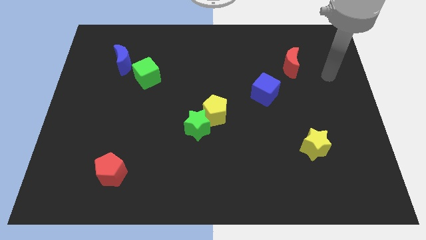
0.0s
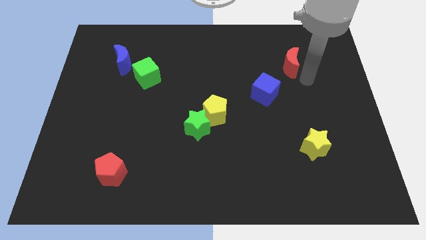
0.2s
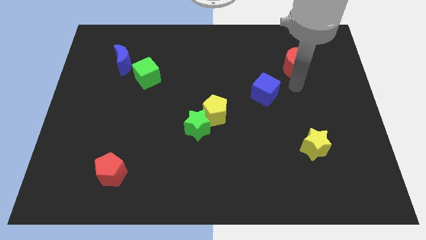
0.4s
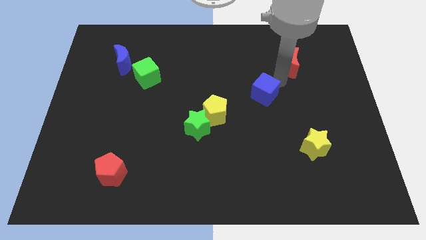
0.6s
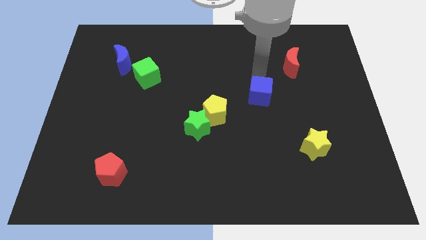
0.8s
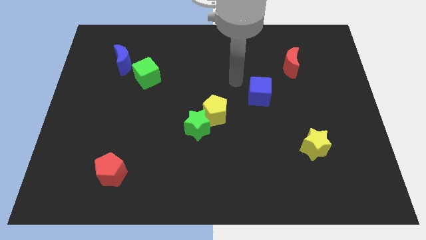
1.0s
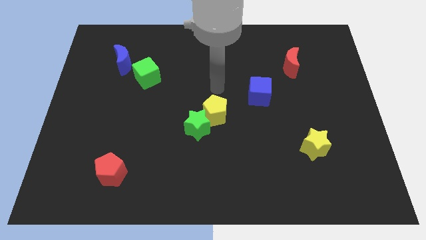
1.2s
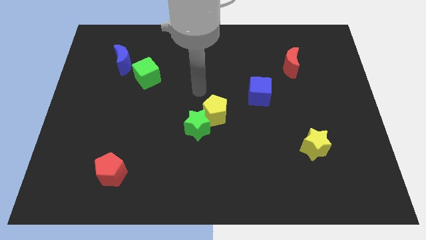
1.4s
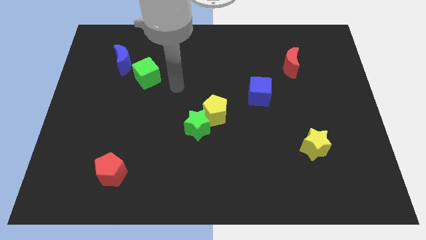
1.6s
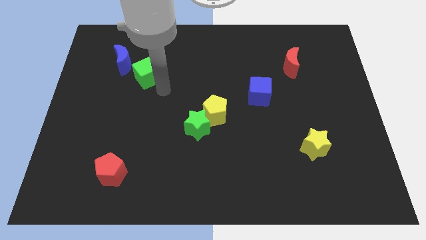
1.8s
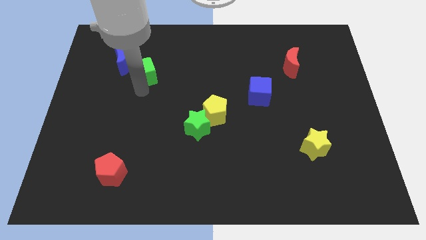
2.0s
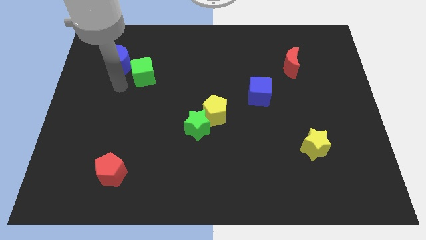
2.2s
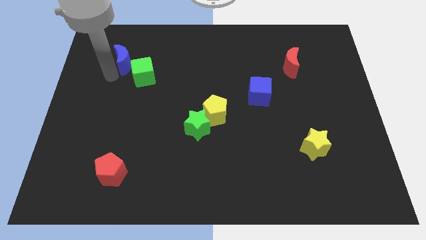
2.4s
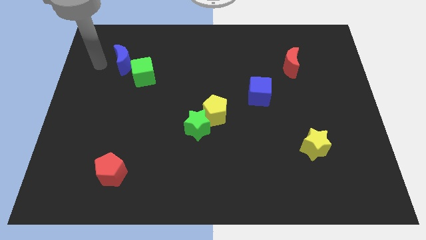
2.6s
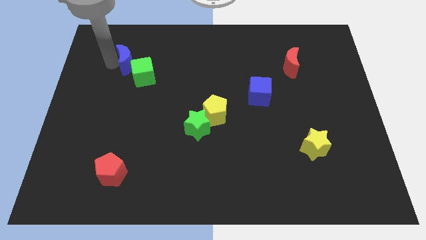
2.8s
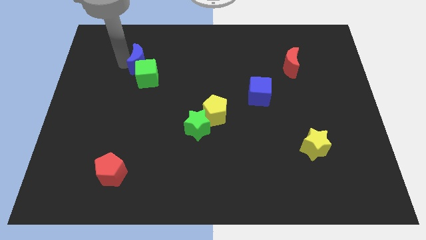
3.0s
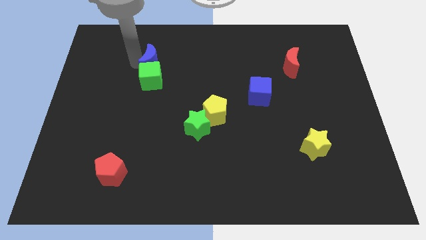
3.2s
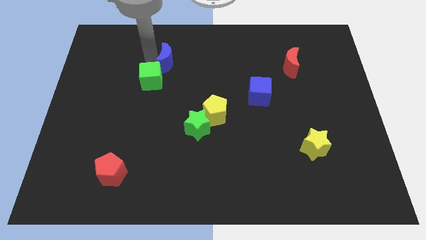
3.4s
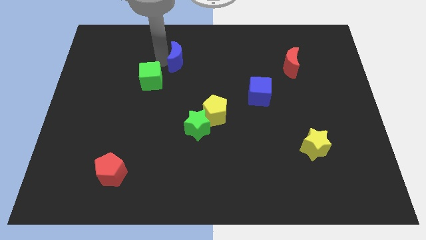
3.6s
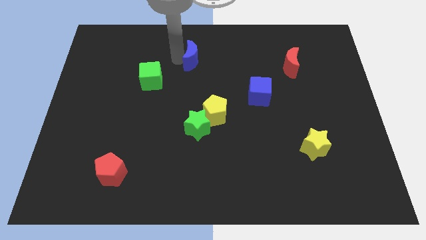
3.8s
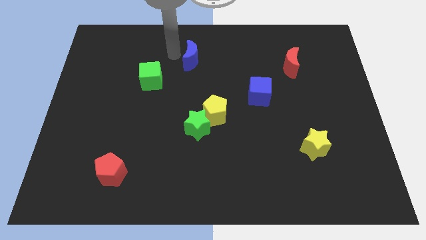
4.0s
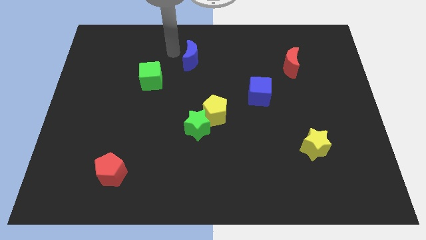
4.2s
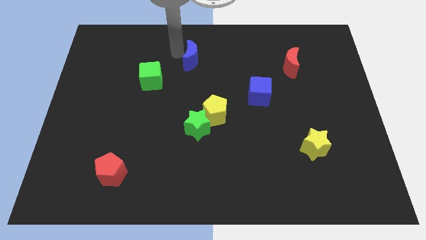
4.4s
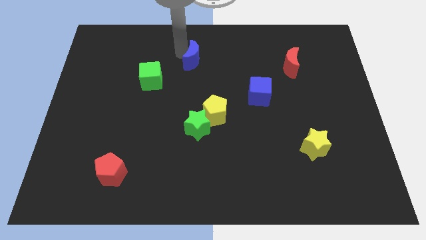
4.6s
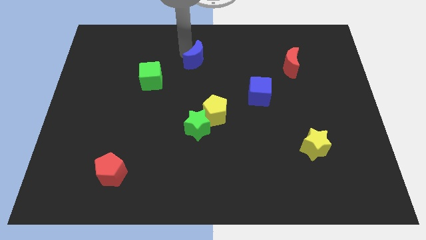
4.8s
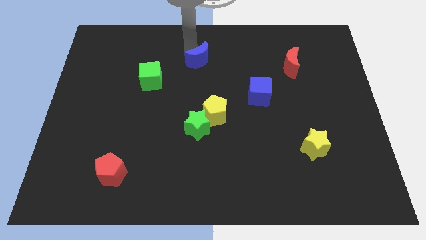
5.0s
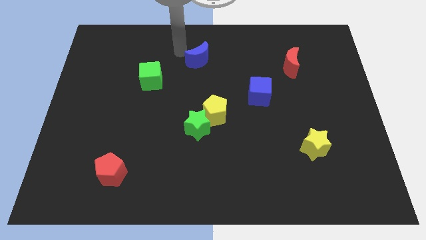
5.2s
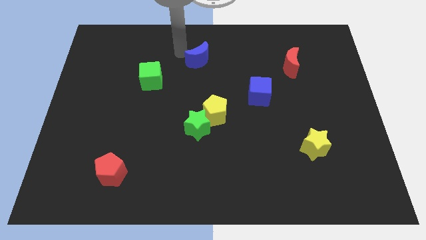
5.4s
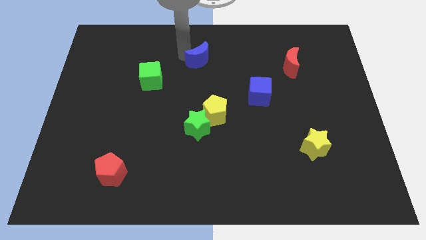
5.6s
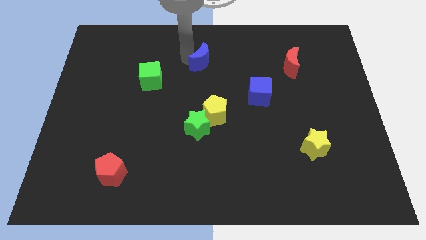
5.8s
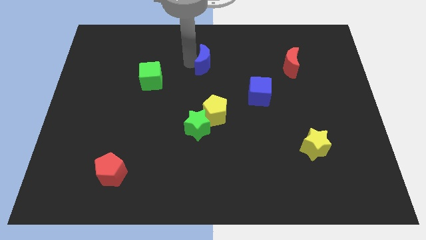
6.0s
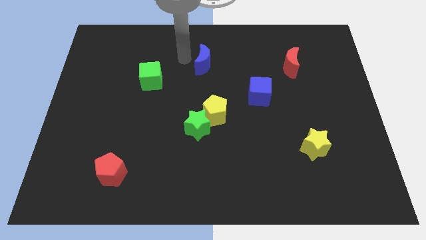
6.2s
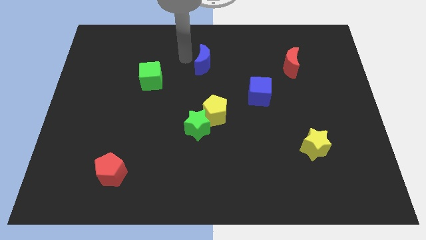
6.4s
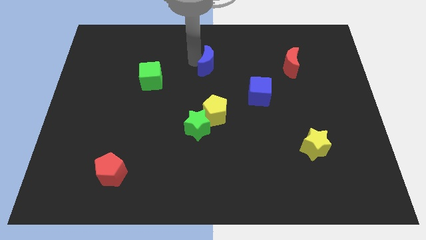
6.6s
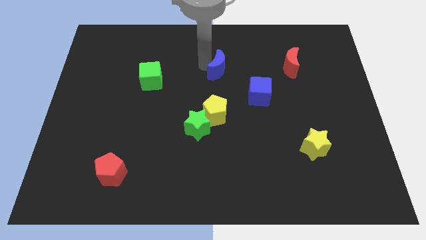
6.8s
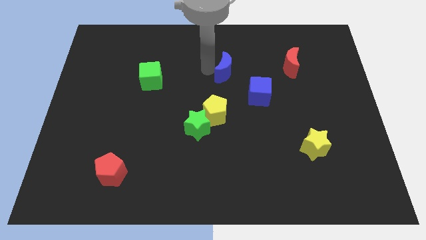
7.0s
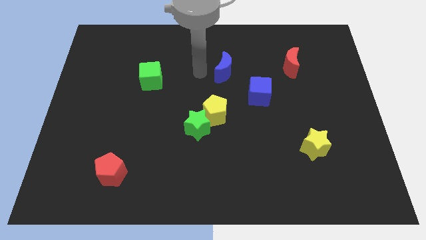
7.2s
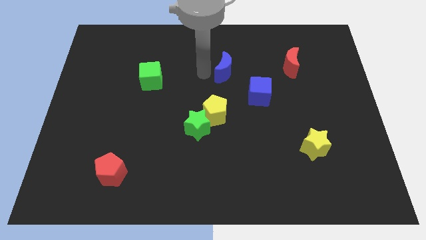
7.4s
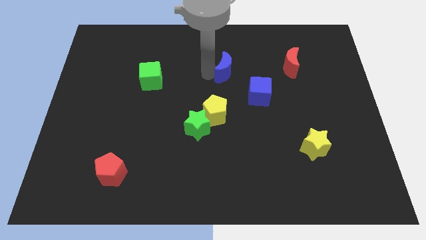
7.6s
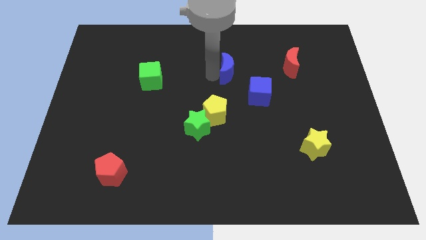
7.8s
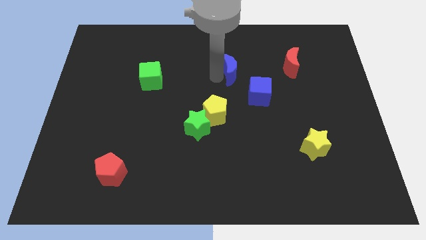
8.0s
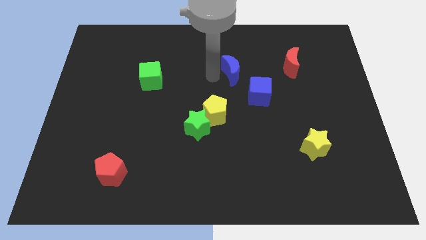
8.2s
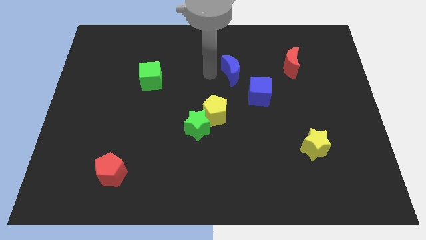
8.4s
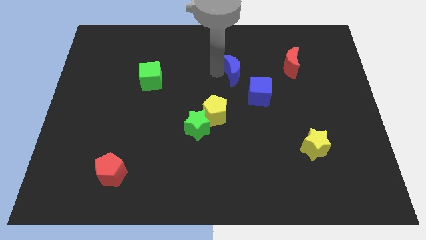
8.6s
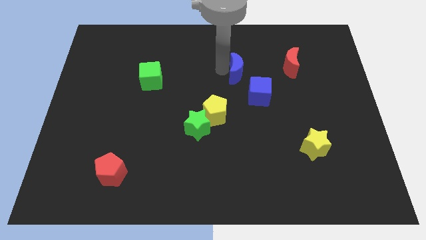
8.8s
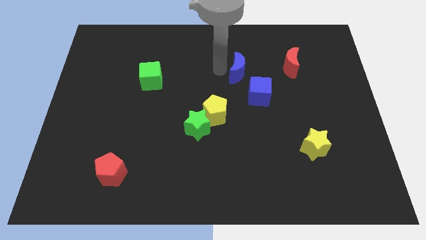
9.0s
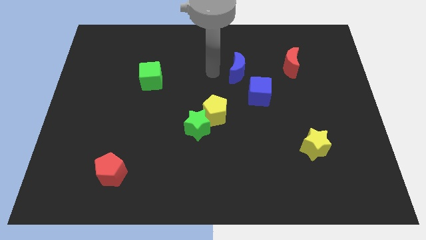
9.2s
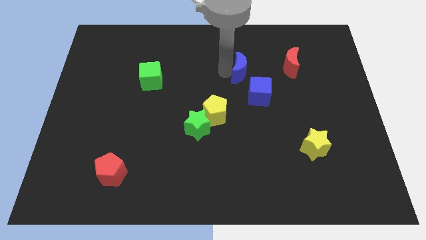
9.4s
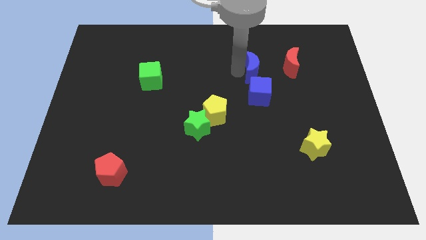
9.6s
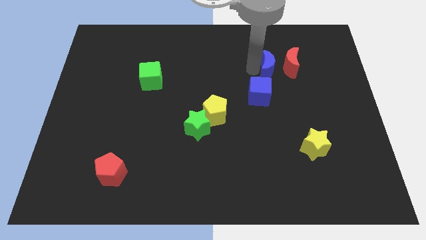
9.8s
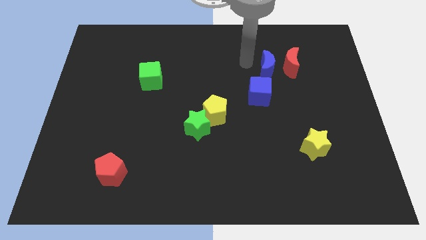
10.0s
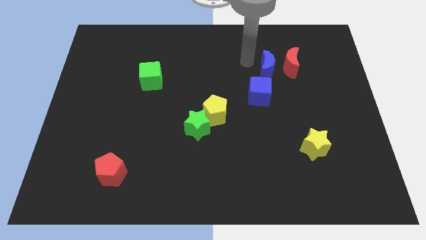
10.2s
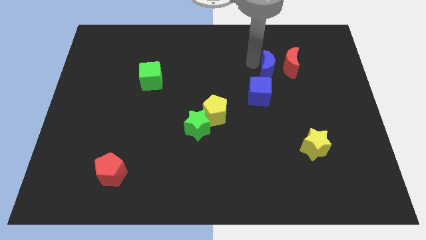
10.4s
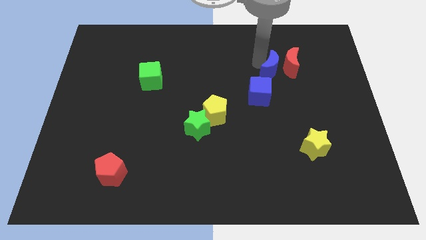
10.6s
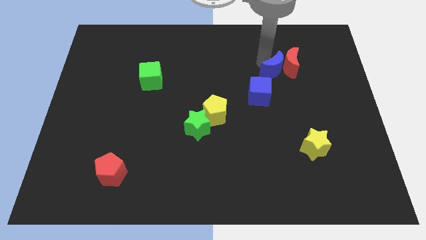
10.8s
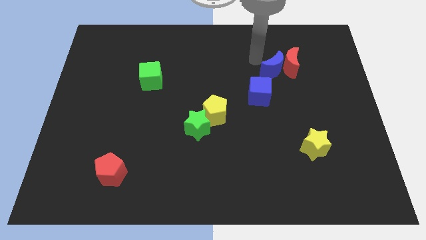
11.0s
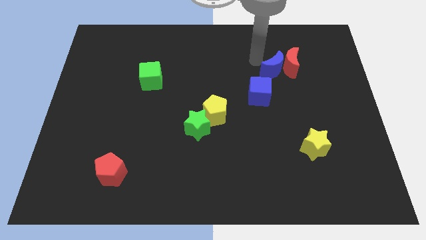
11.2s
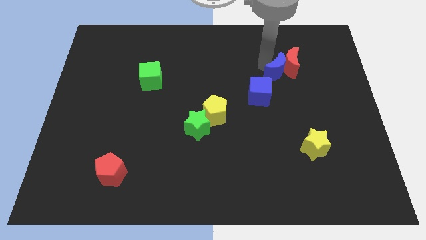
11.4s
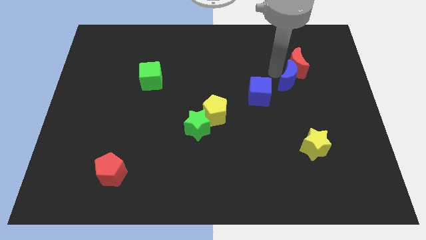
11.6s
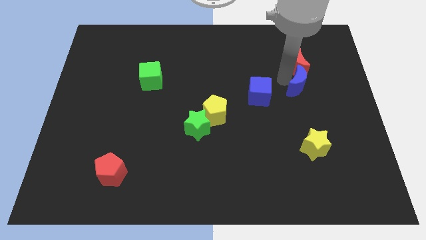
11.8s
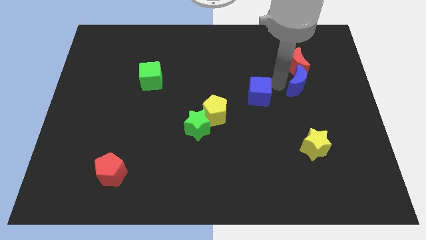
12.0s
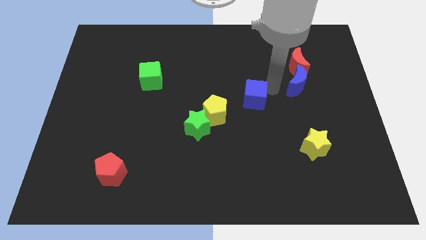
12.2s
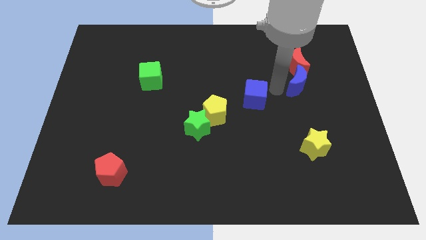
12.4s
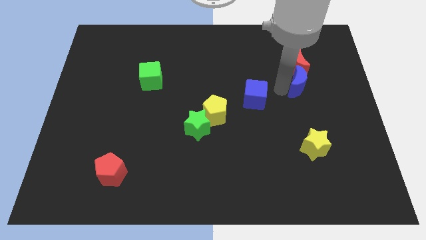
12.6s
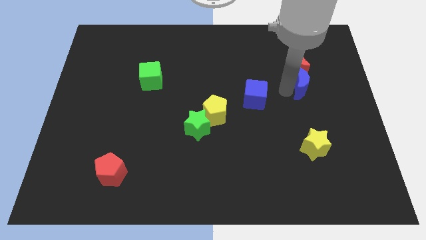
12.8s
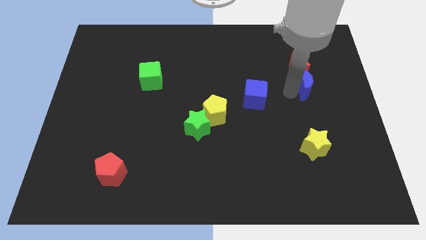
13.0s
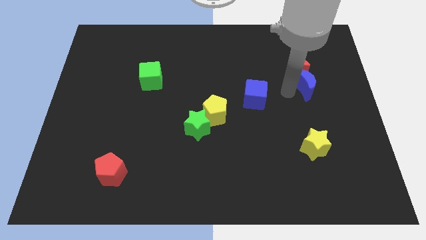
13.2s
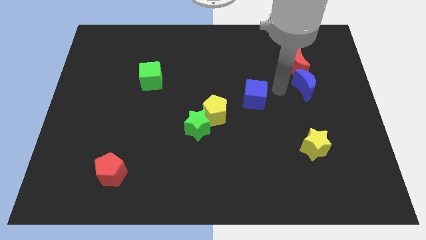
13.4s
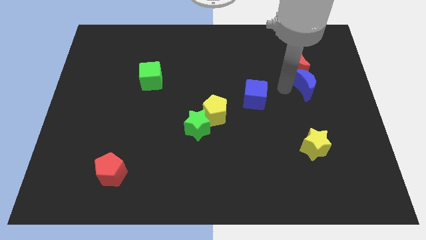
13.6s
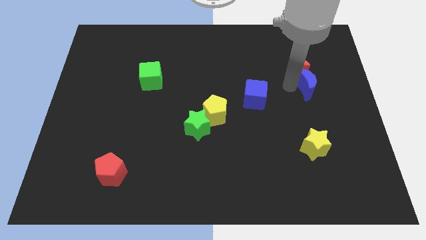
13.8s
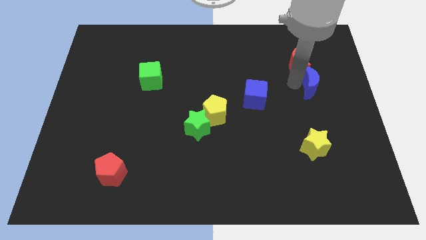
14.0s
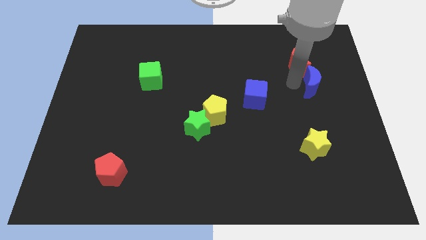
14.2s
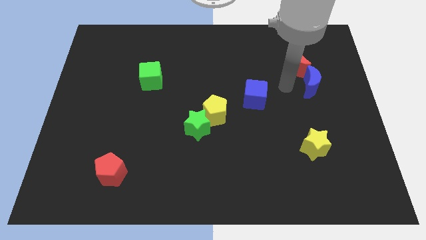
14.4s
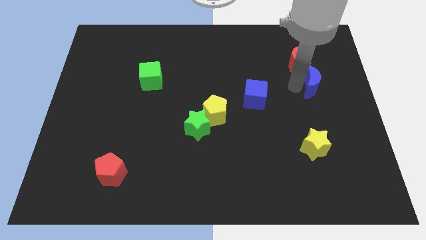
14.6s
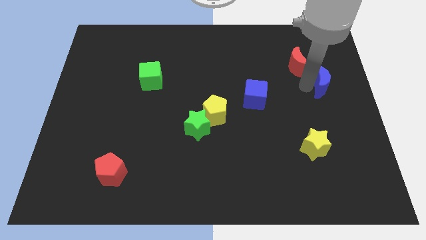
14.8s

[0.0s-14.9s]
put the blue moon to the right side
